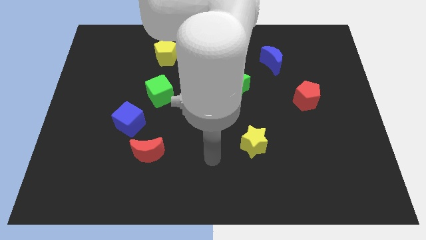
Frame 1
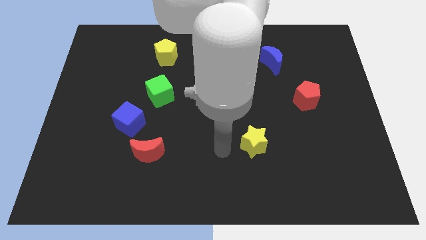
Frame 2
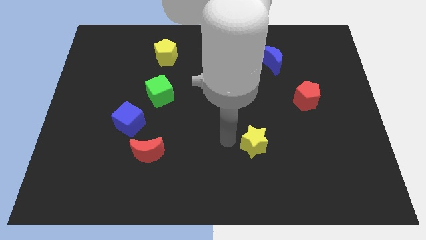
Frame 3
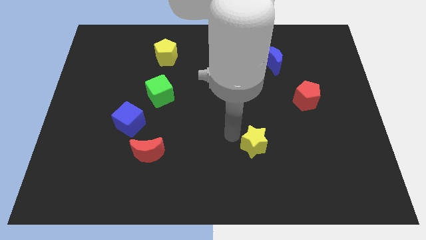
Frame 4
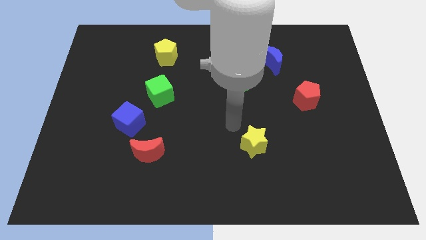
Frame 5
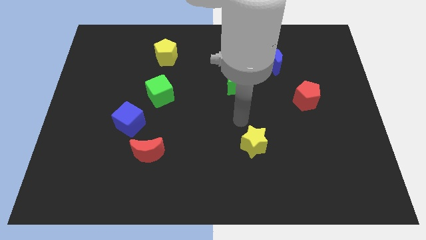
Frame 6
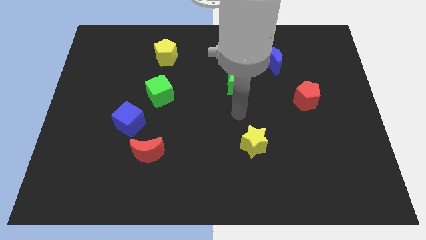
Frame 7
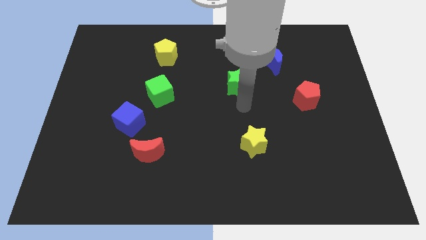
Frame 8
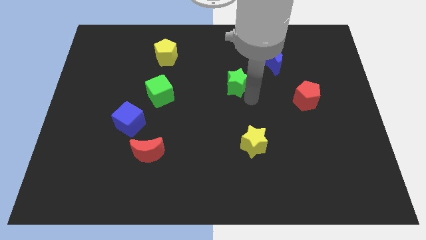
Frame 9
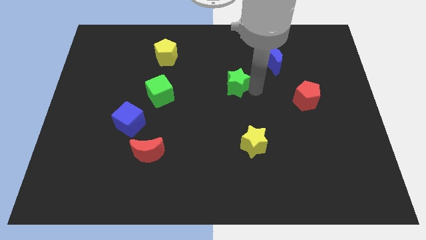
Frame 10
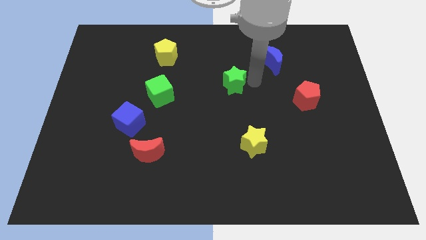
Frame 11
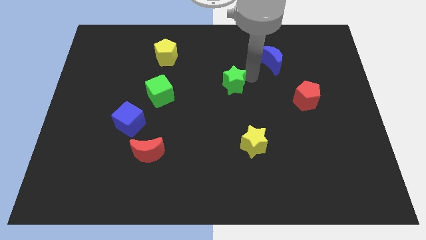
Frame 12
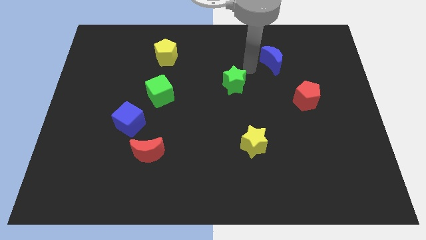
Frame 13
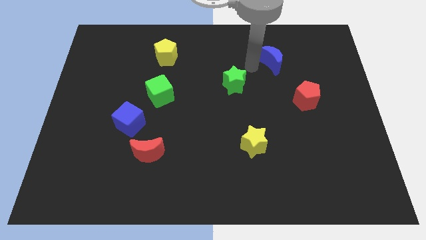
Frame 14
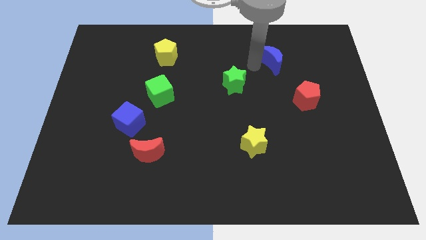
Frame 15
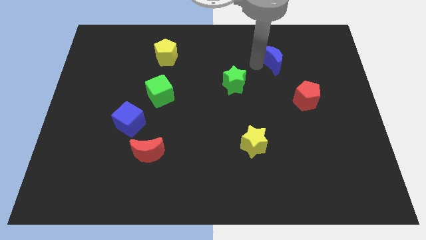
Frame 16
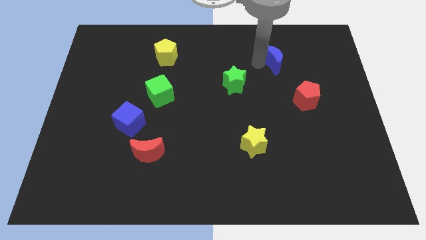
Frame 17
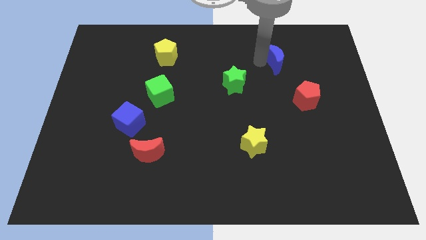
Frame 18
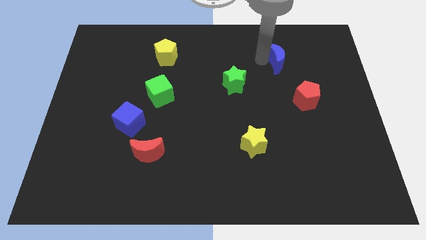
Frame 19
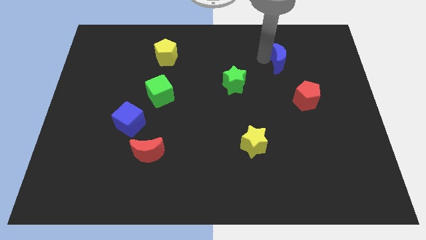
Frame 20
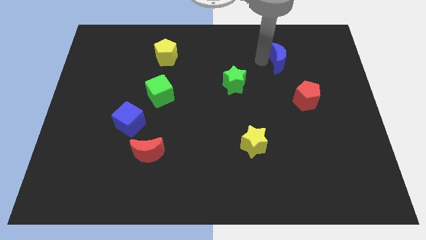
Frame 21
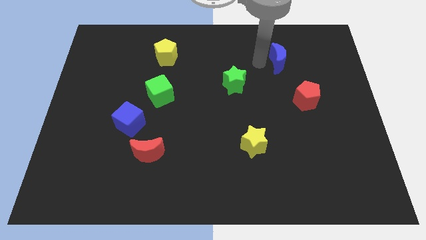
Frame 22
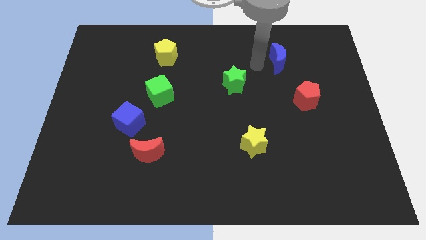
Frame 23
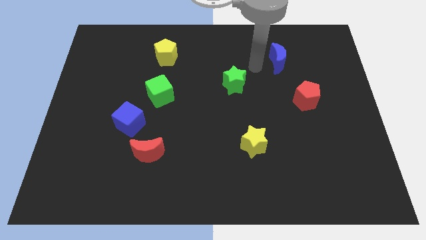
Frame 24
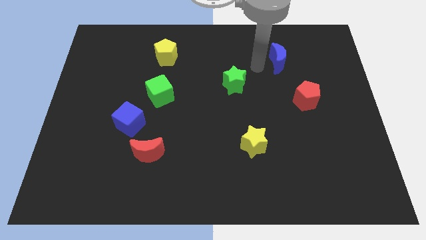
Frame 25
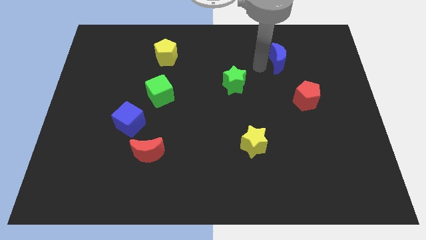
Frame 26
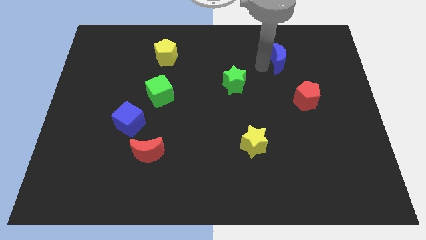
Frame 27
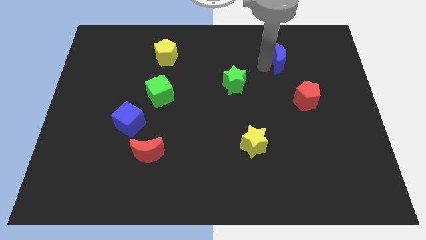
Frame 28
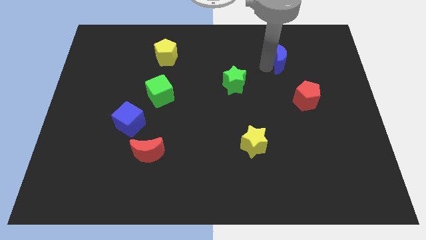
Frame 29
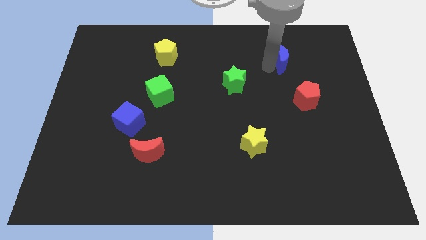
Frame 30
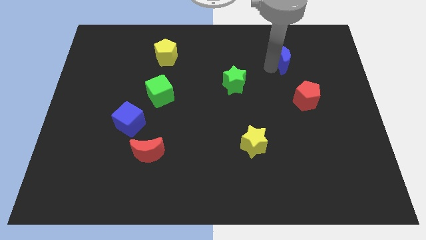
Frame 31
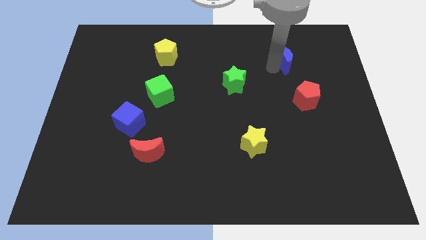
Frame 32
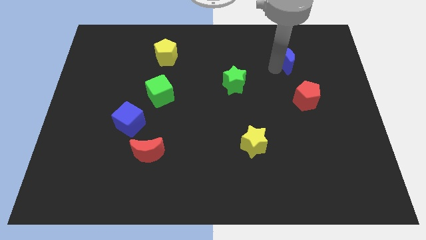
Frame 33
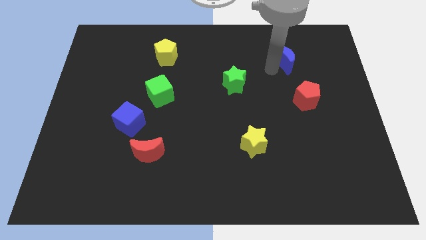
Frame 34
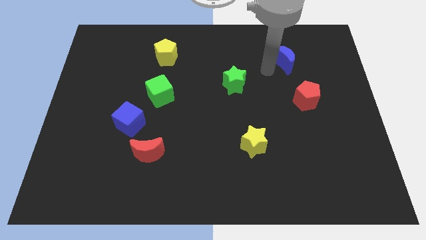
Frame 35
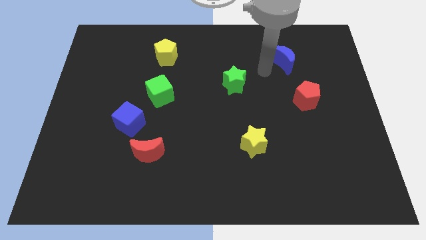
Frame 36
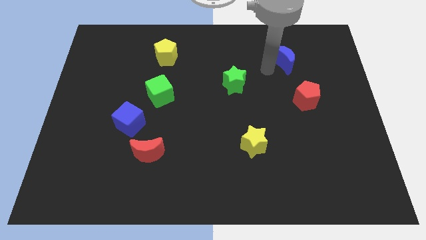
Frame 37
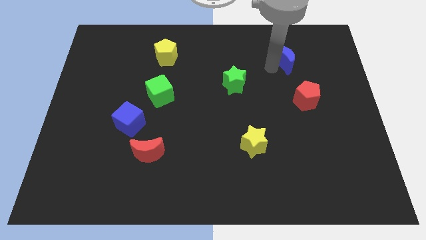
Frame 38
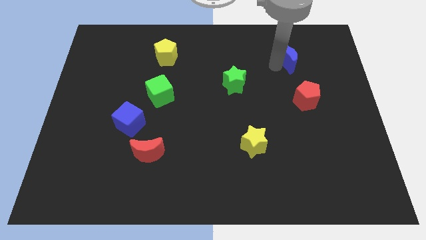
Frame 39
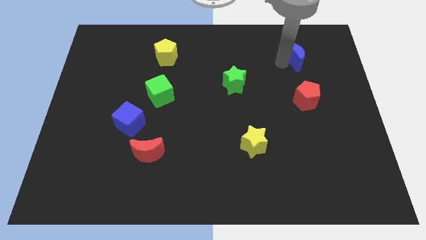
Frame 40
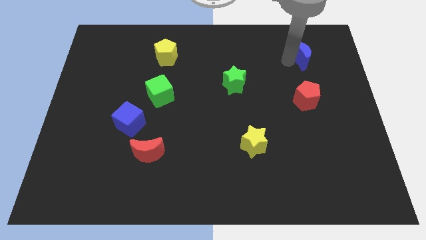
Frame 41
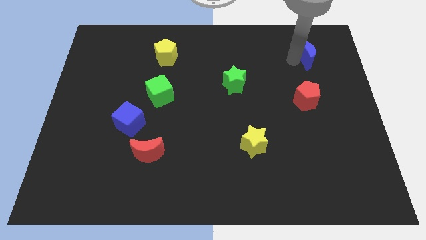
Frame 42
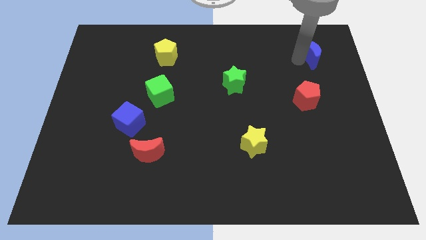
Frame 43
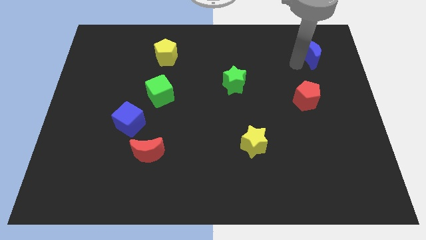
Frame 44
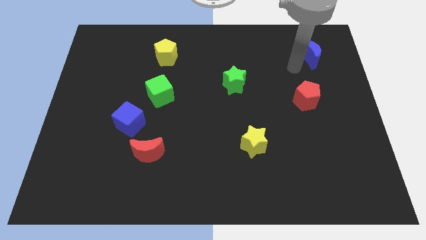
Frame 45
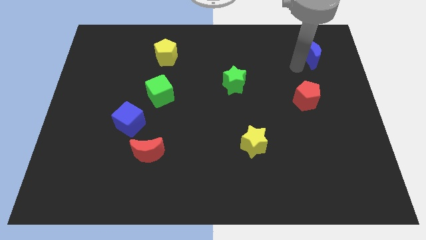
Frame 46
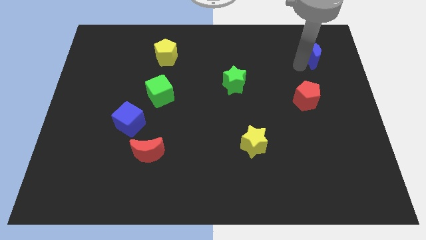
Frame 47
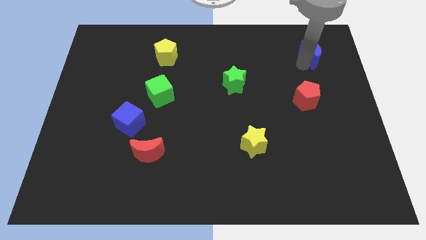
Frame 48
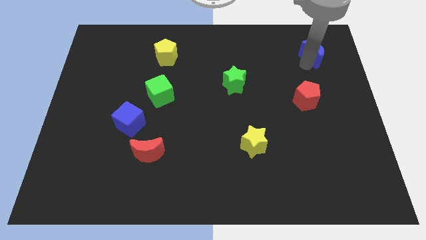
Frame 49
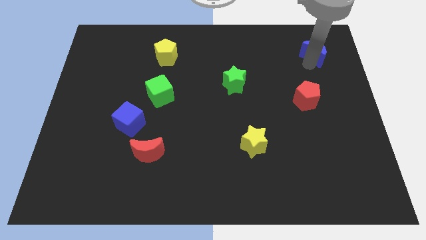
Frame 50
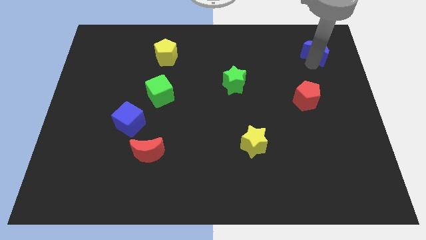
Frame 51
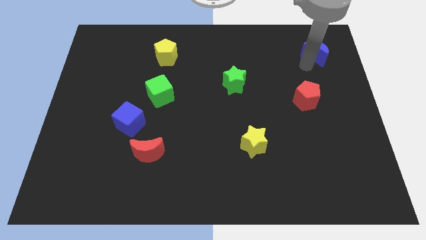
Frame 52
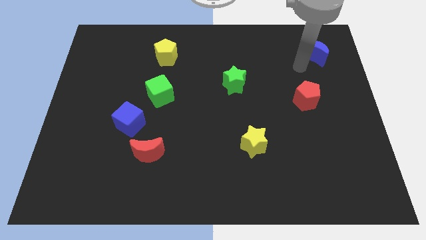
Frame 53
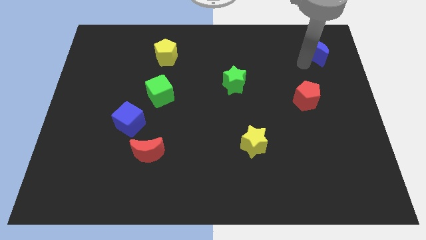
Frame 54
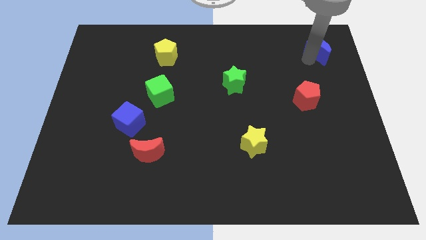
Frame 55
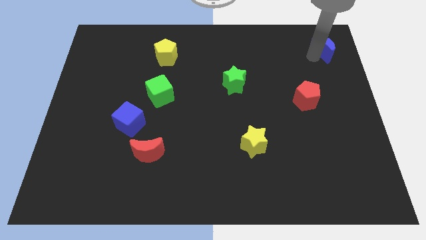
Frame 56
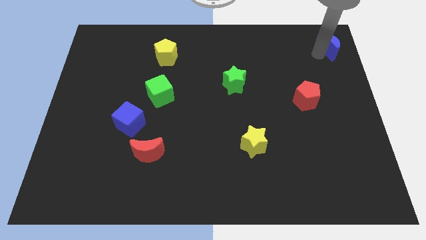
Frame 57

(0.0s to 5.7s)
push the blue moon to the upper right corner

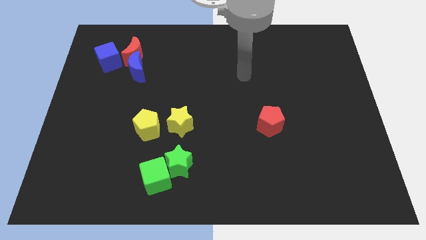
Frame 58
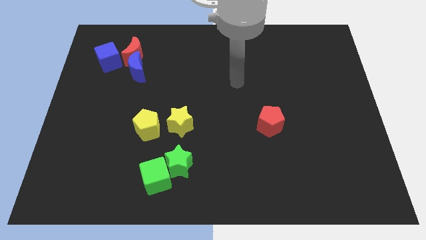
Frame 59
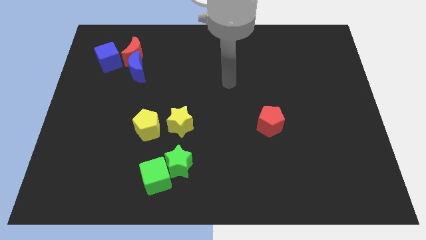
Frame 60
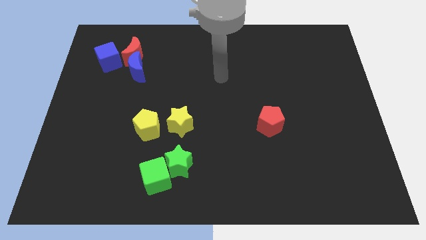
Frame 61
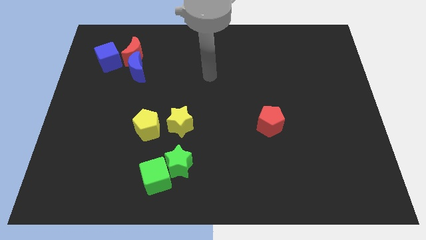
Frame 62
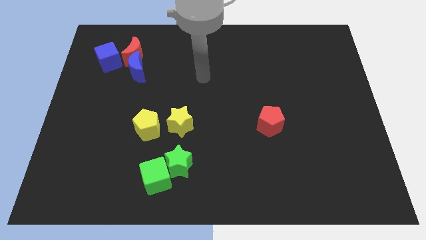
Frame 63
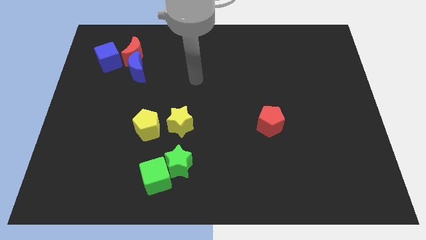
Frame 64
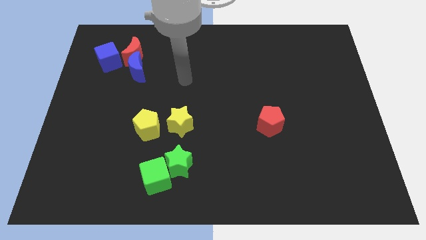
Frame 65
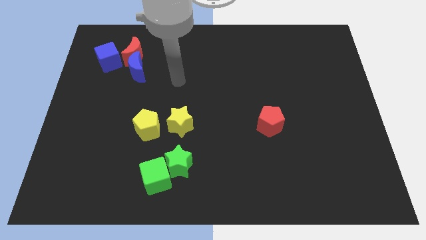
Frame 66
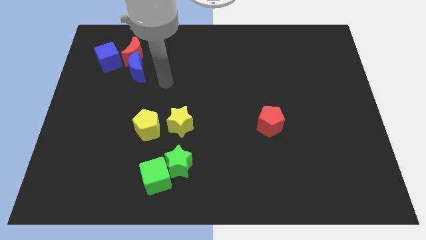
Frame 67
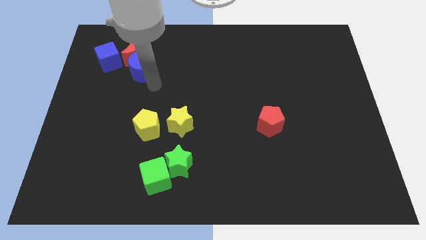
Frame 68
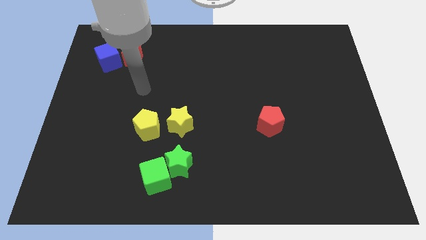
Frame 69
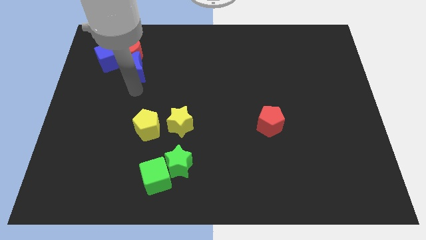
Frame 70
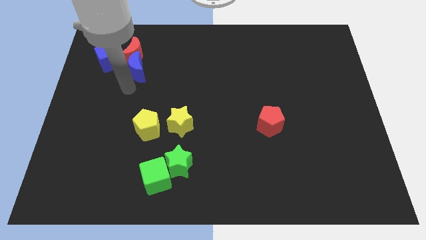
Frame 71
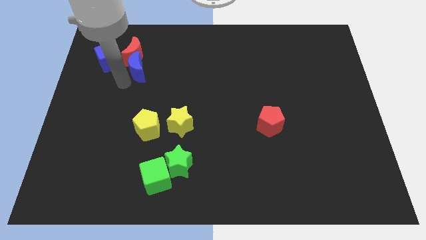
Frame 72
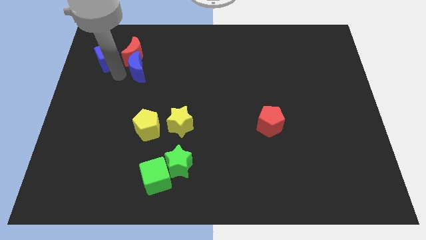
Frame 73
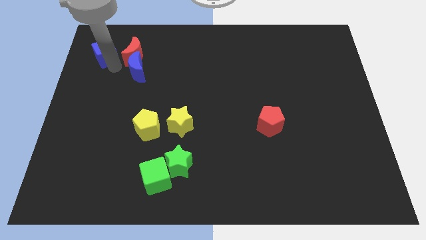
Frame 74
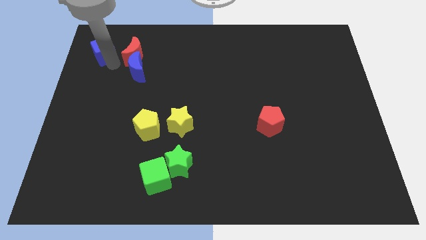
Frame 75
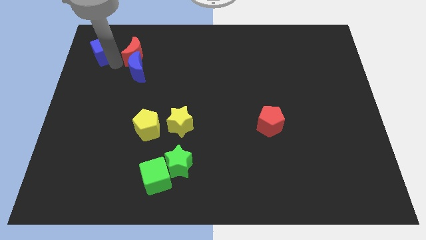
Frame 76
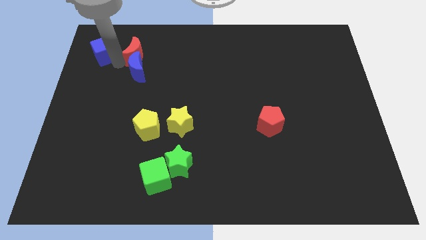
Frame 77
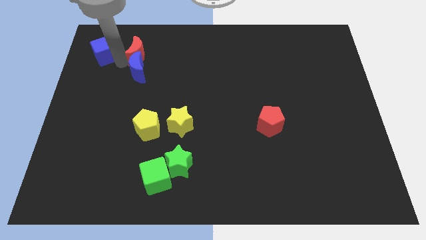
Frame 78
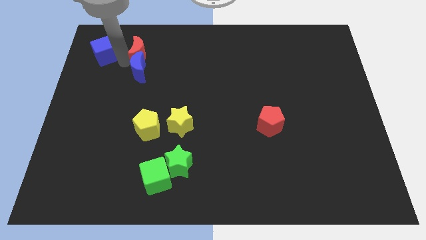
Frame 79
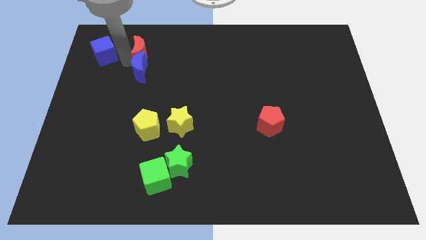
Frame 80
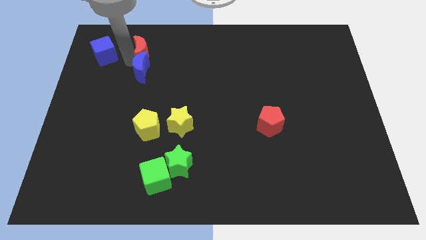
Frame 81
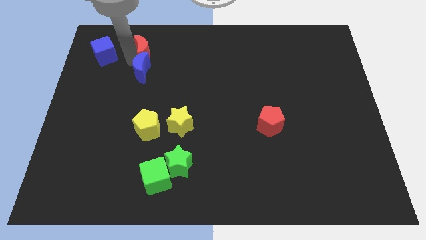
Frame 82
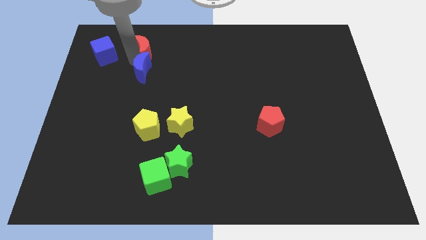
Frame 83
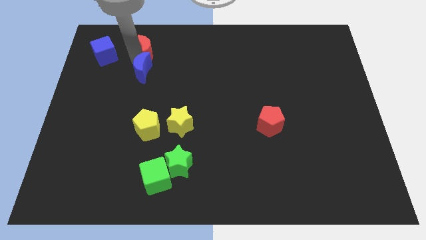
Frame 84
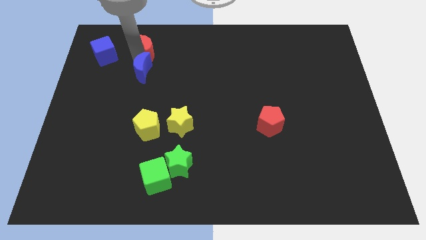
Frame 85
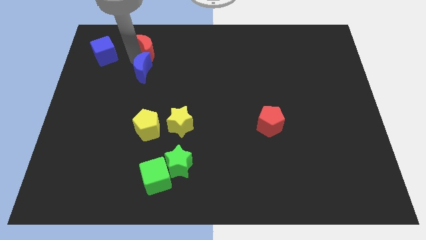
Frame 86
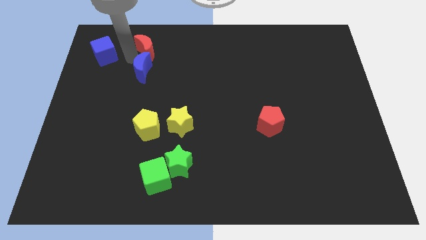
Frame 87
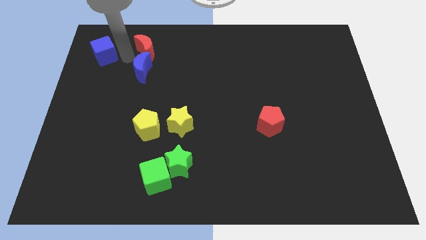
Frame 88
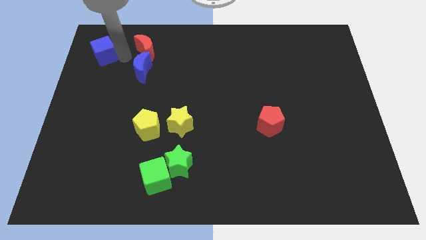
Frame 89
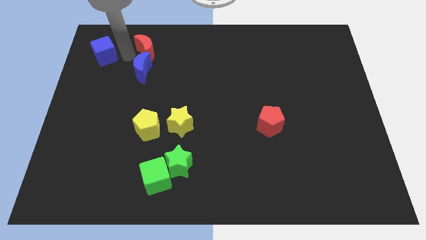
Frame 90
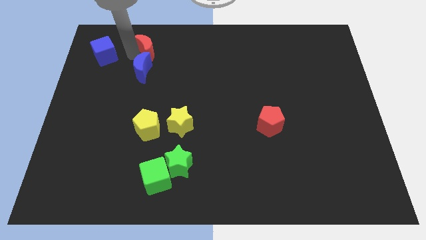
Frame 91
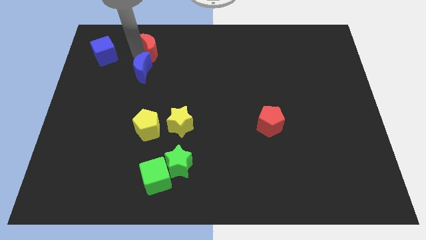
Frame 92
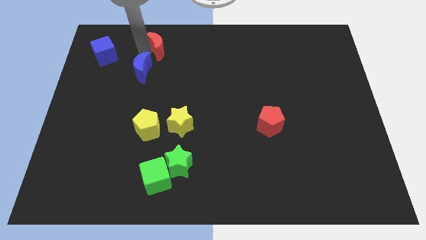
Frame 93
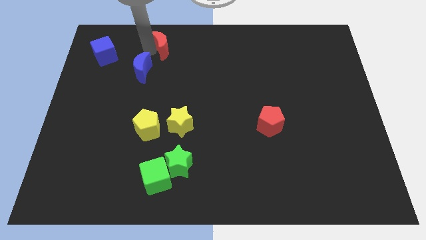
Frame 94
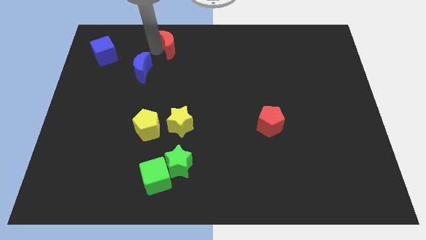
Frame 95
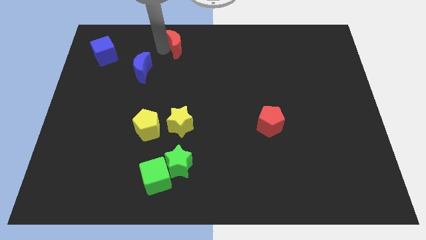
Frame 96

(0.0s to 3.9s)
slide the red moon to the top side
